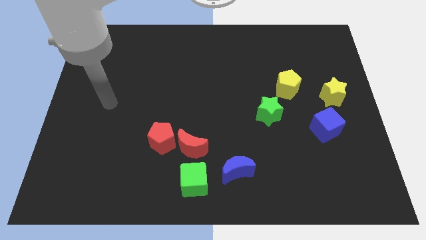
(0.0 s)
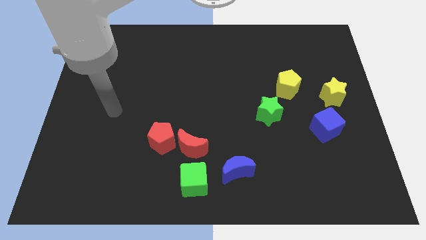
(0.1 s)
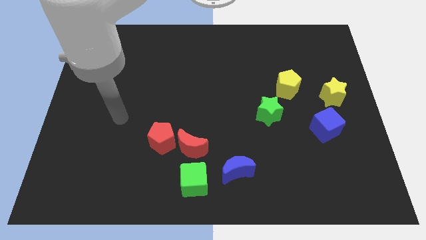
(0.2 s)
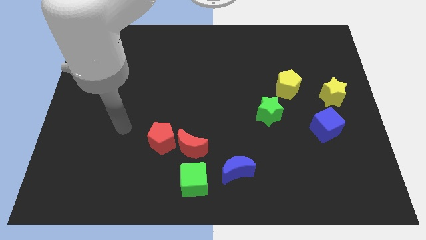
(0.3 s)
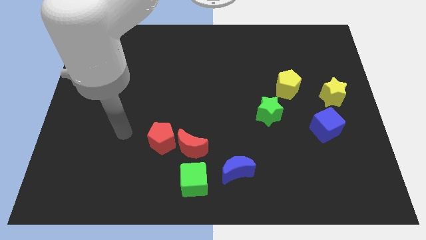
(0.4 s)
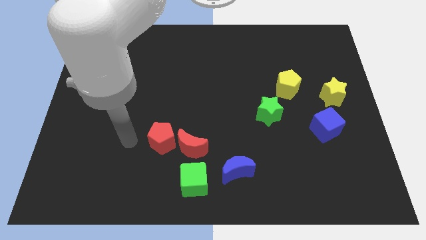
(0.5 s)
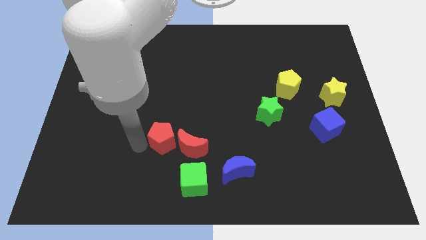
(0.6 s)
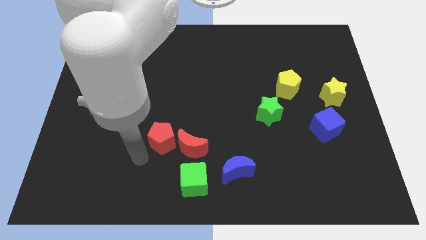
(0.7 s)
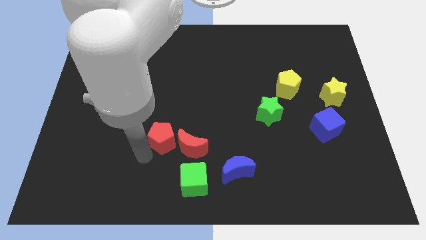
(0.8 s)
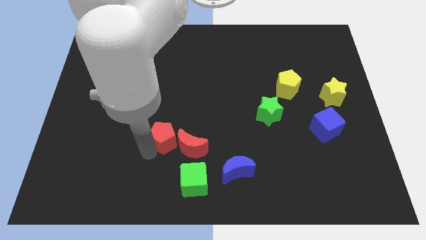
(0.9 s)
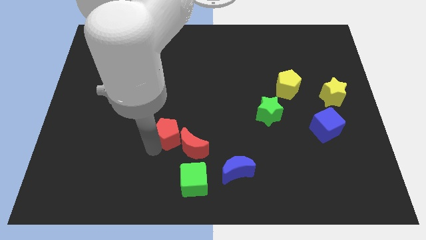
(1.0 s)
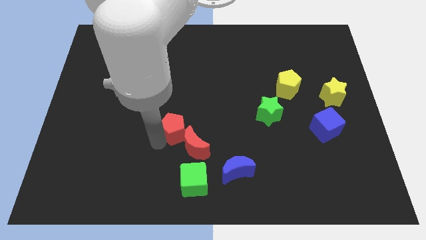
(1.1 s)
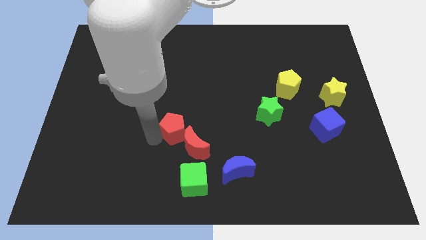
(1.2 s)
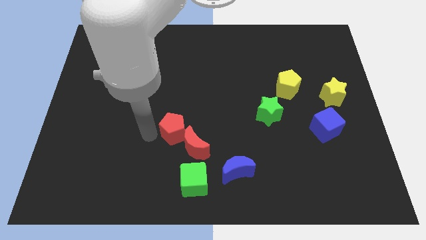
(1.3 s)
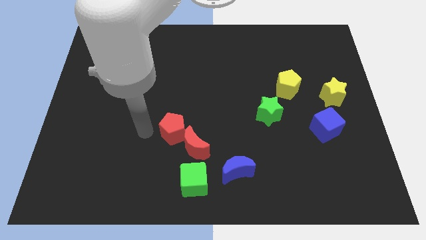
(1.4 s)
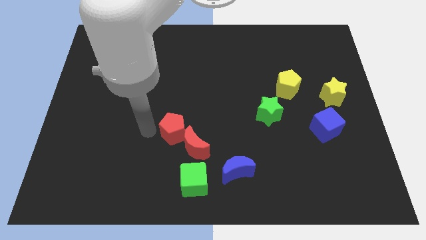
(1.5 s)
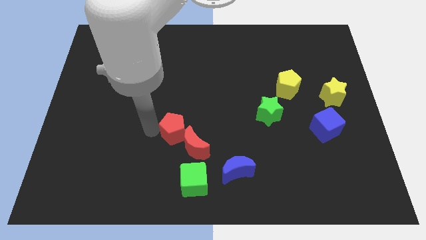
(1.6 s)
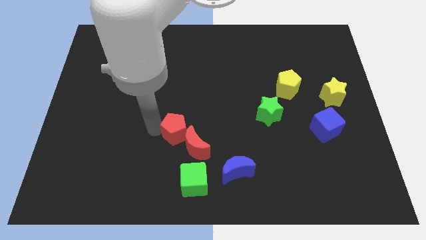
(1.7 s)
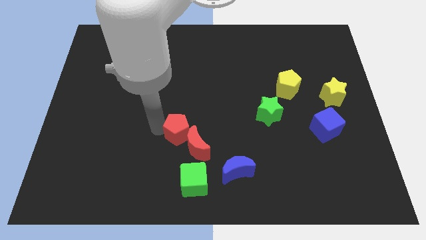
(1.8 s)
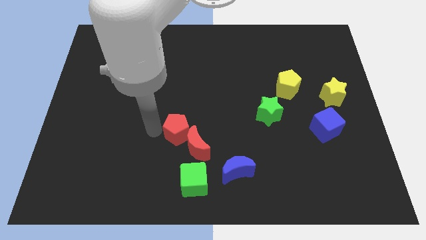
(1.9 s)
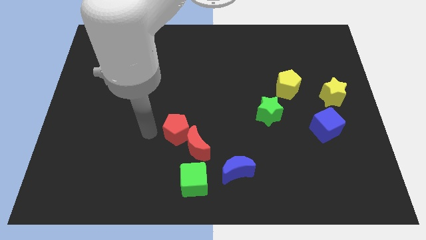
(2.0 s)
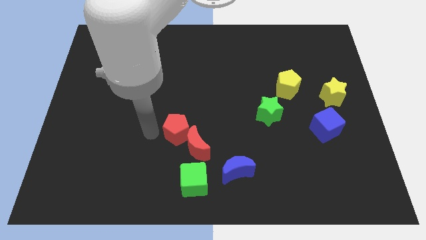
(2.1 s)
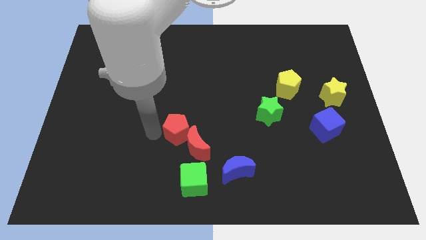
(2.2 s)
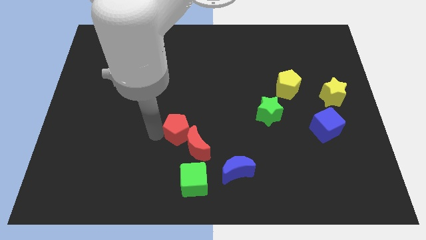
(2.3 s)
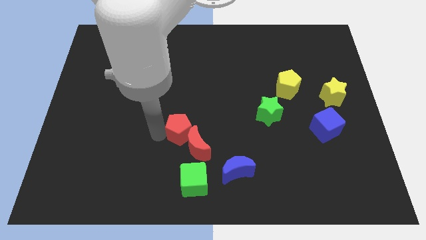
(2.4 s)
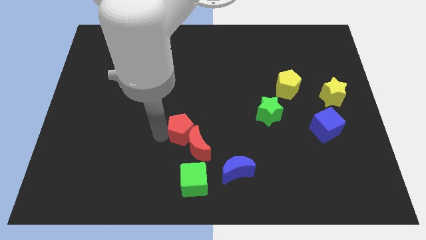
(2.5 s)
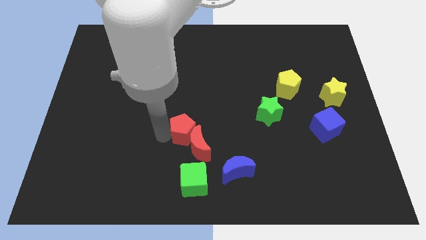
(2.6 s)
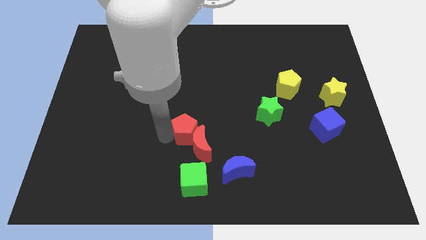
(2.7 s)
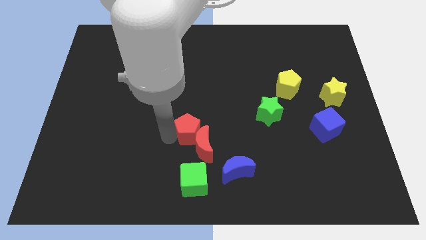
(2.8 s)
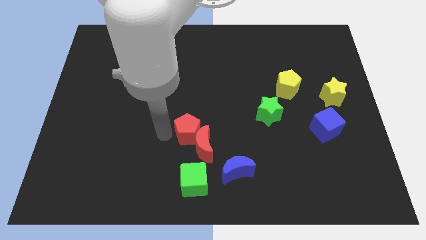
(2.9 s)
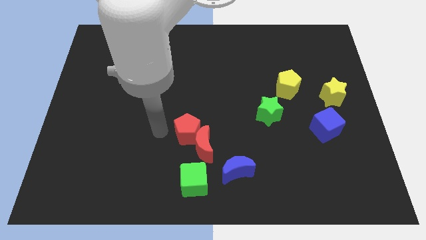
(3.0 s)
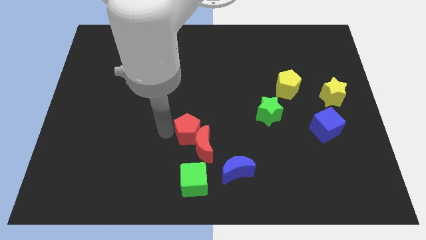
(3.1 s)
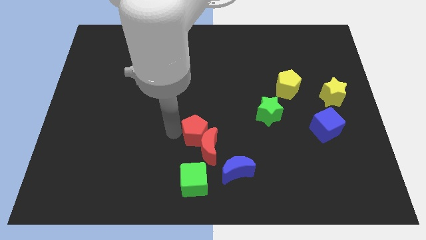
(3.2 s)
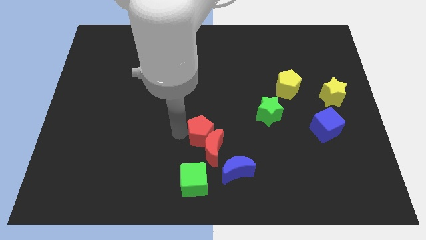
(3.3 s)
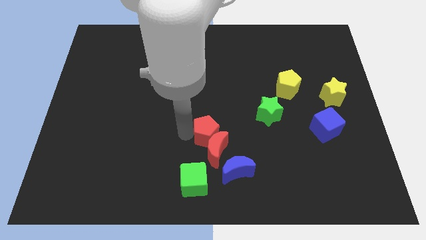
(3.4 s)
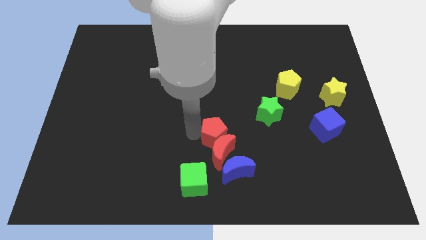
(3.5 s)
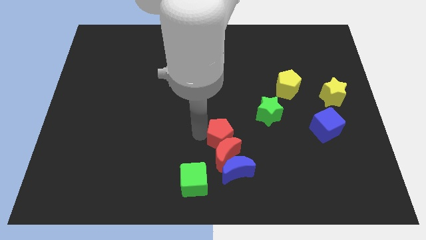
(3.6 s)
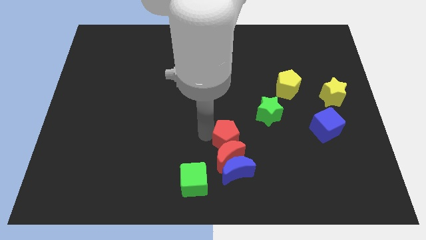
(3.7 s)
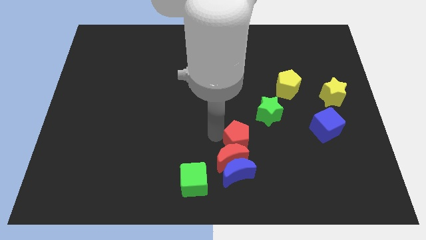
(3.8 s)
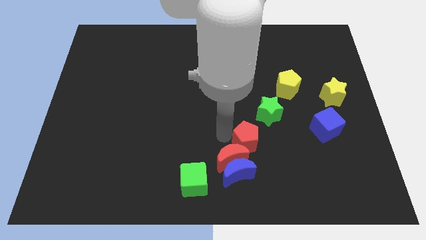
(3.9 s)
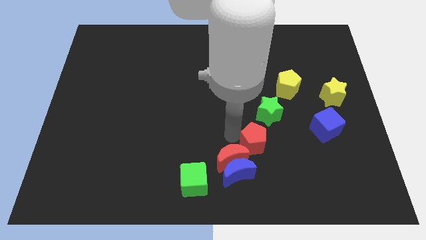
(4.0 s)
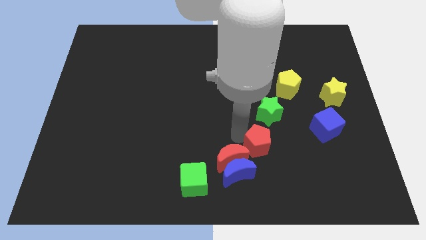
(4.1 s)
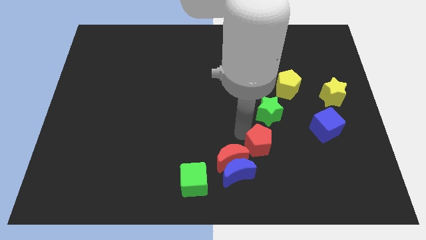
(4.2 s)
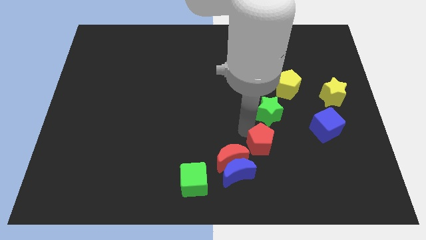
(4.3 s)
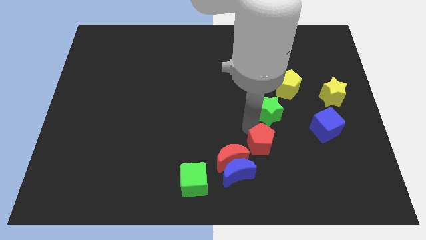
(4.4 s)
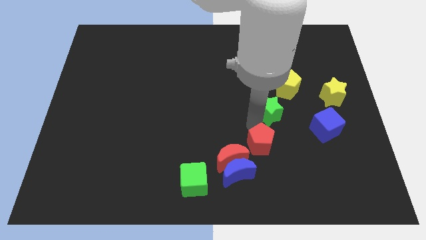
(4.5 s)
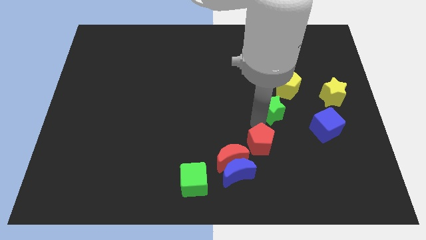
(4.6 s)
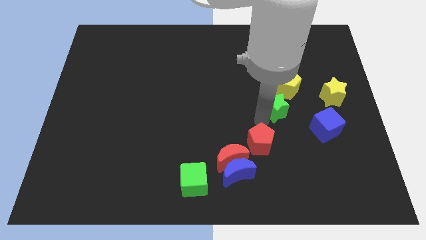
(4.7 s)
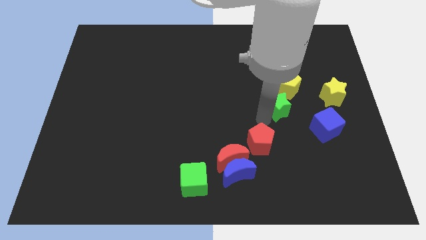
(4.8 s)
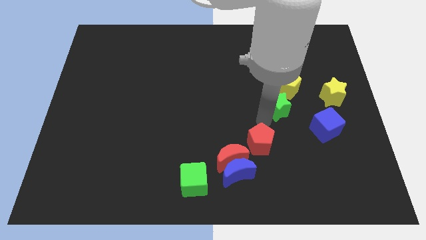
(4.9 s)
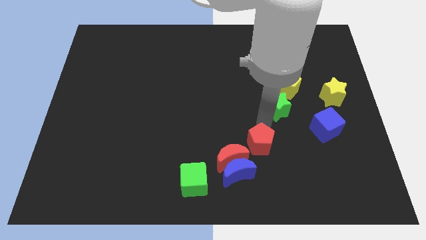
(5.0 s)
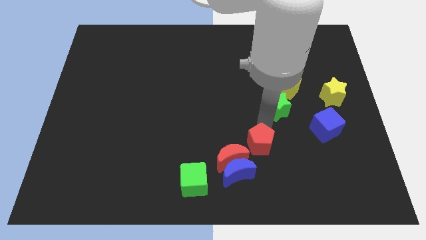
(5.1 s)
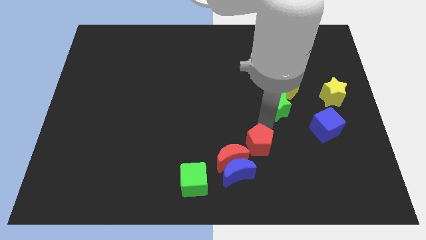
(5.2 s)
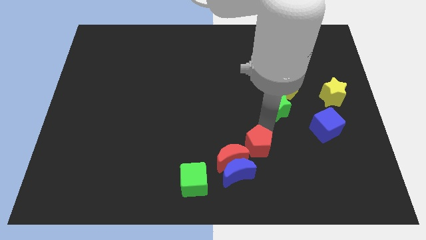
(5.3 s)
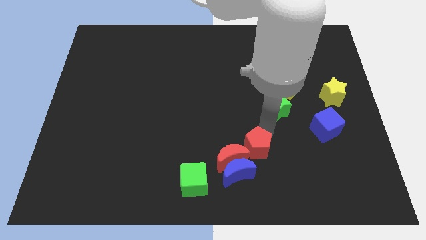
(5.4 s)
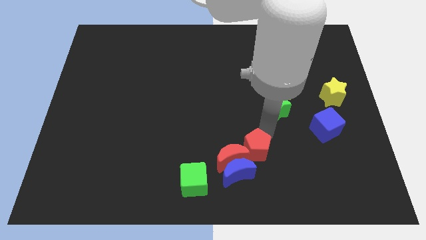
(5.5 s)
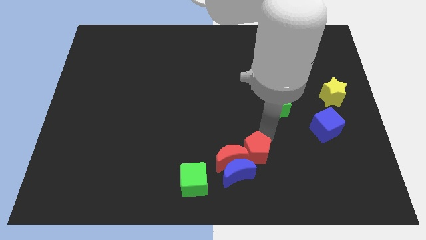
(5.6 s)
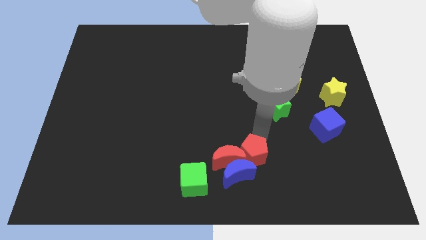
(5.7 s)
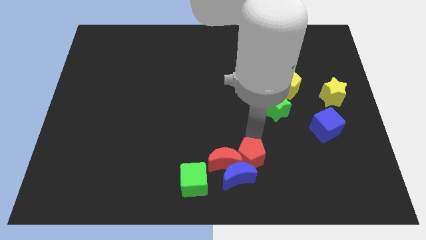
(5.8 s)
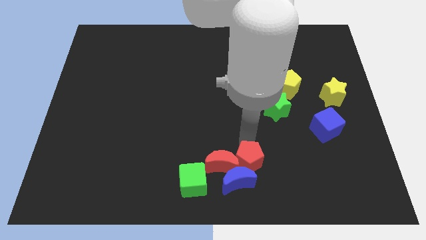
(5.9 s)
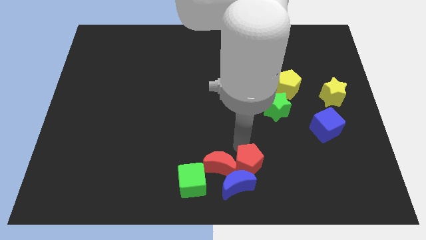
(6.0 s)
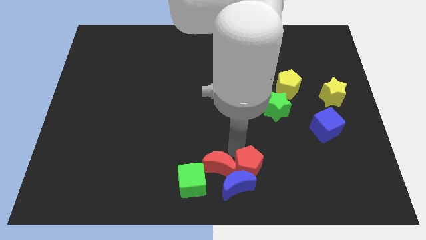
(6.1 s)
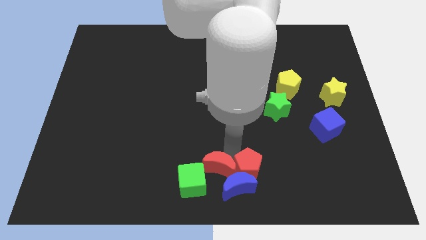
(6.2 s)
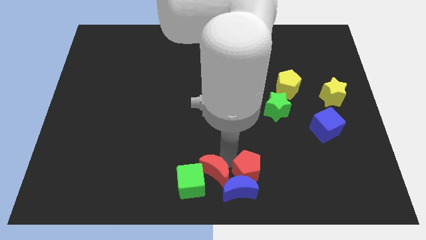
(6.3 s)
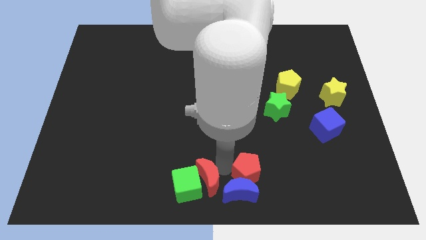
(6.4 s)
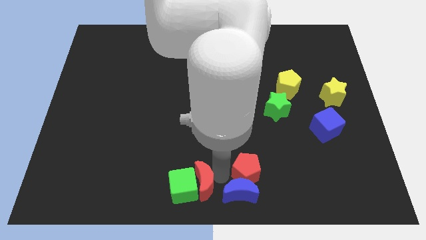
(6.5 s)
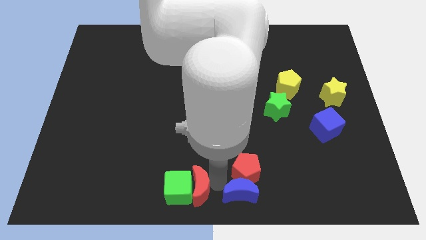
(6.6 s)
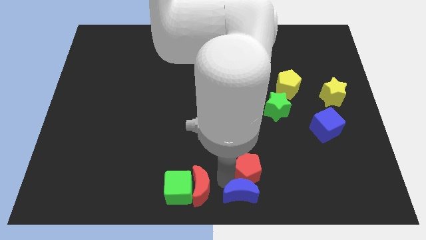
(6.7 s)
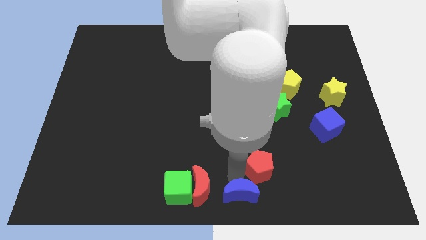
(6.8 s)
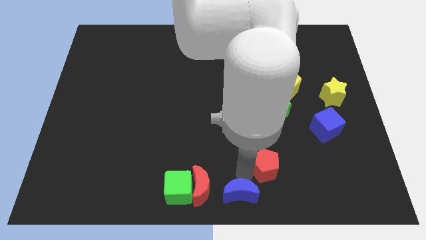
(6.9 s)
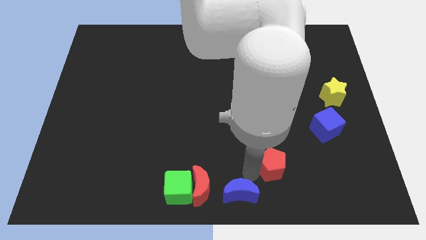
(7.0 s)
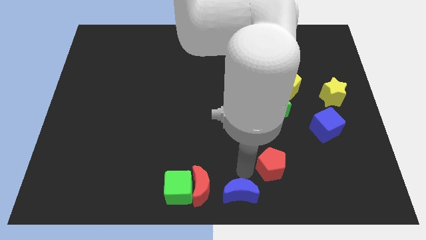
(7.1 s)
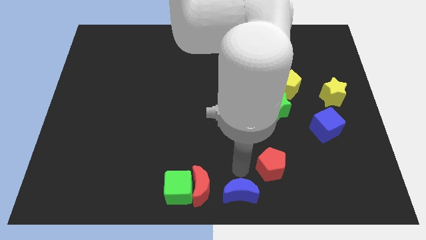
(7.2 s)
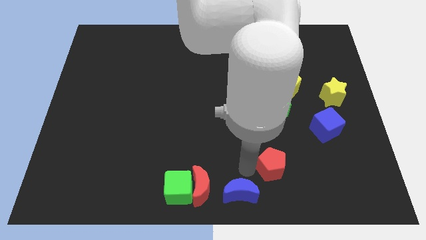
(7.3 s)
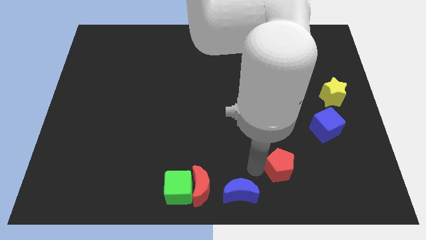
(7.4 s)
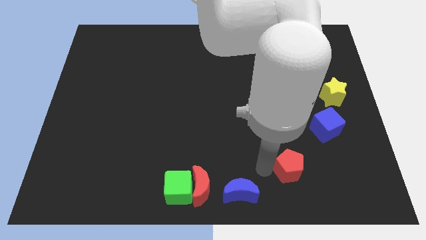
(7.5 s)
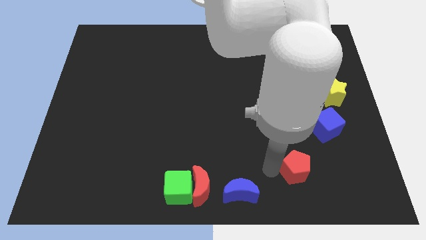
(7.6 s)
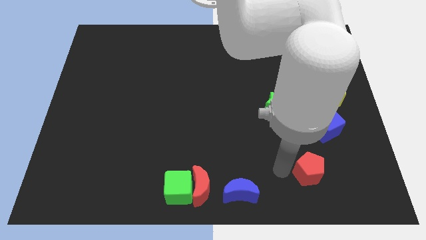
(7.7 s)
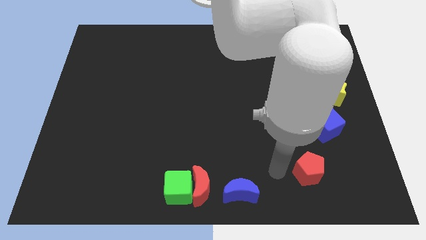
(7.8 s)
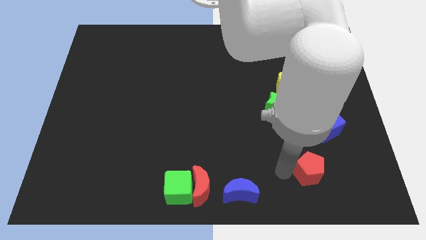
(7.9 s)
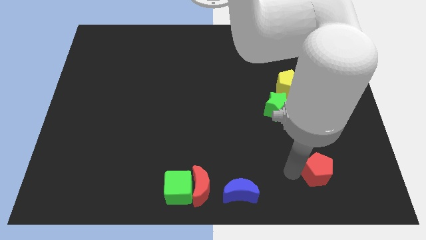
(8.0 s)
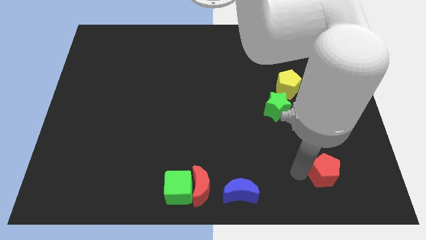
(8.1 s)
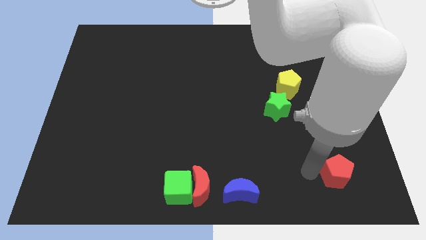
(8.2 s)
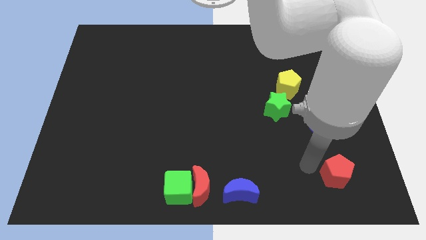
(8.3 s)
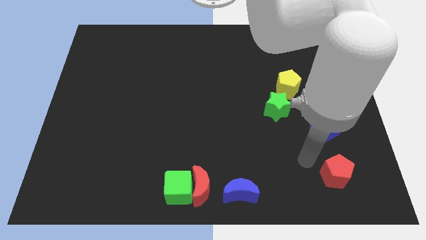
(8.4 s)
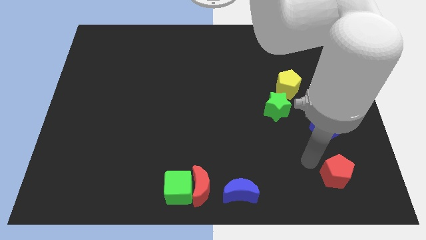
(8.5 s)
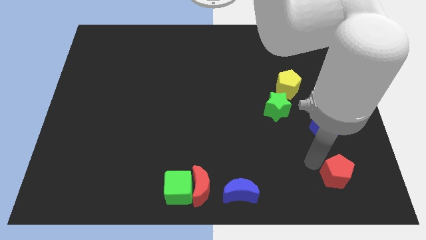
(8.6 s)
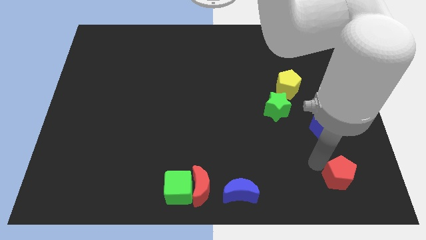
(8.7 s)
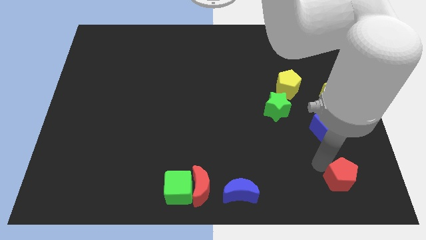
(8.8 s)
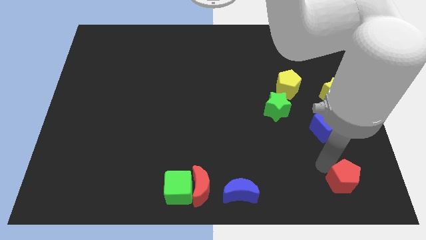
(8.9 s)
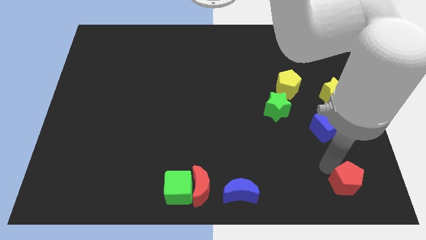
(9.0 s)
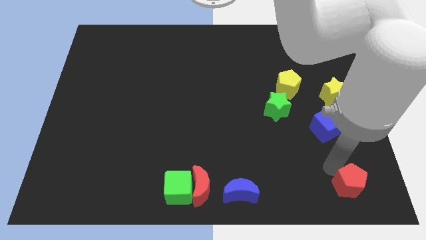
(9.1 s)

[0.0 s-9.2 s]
push the red pentagon to the lower right corner
